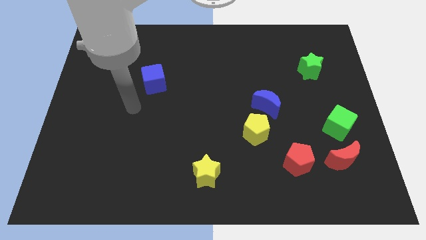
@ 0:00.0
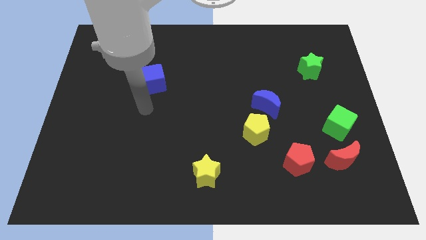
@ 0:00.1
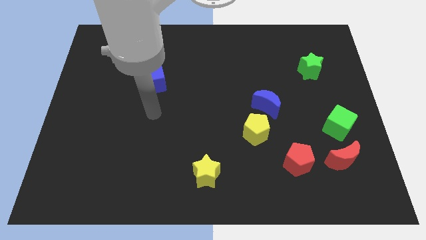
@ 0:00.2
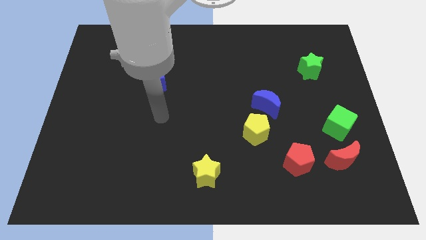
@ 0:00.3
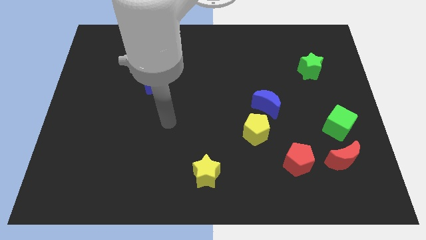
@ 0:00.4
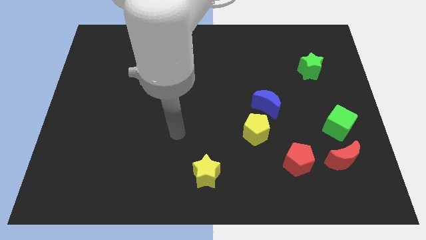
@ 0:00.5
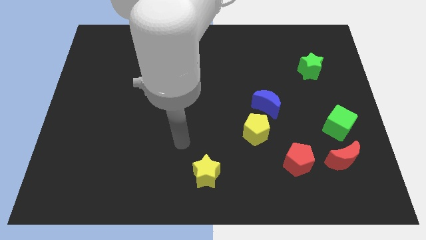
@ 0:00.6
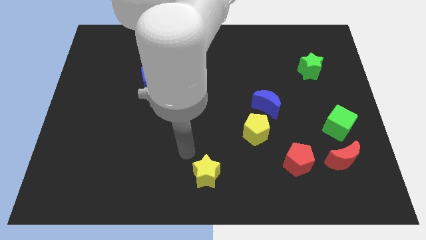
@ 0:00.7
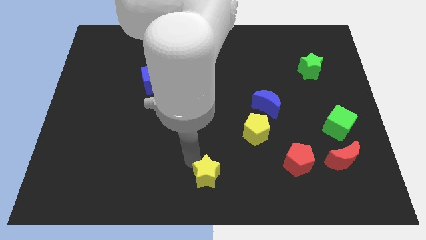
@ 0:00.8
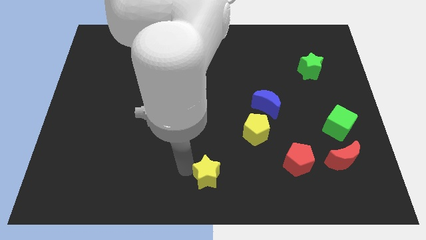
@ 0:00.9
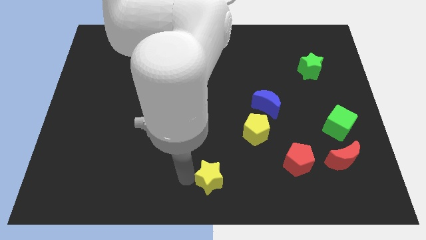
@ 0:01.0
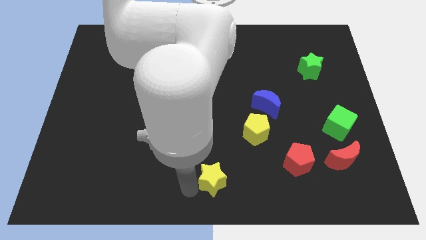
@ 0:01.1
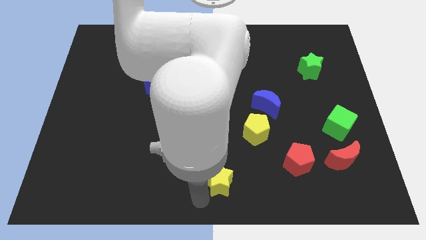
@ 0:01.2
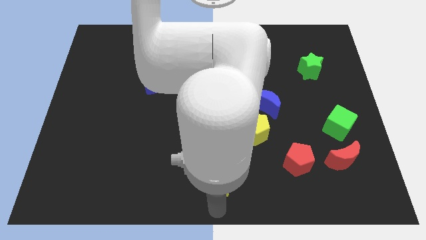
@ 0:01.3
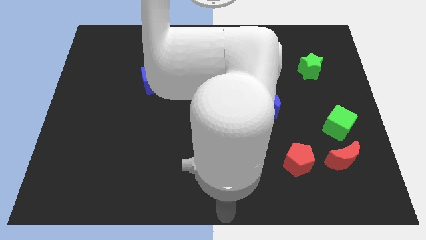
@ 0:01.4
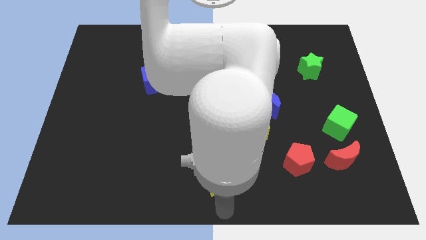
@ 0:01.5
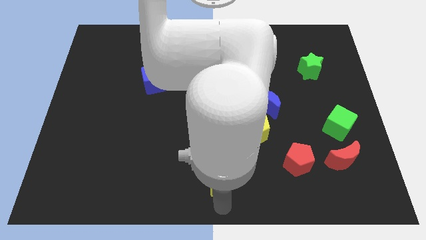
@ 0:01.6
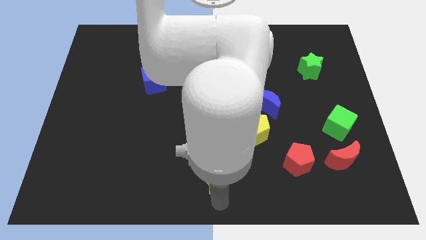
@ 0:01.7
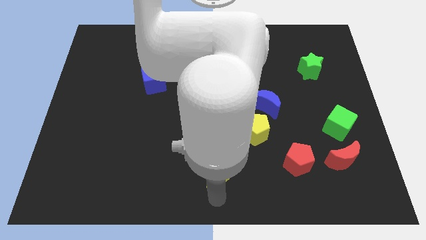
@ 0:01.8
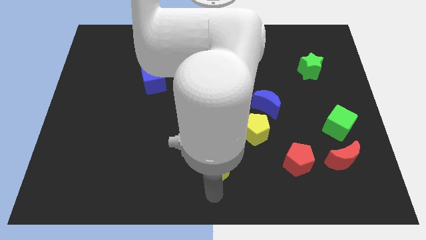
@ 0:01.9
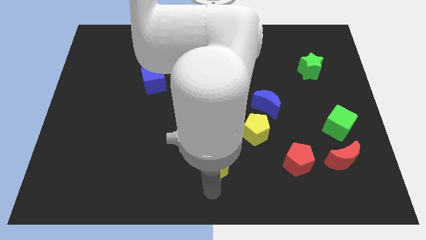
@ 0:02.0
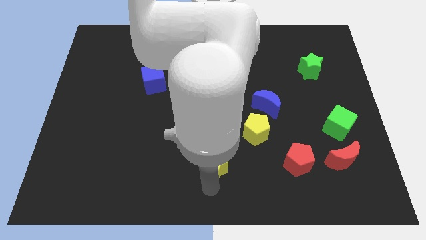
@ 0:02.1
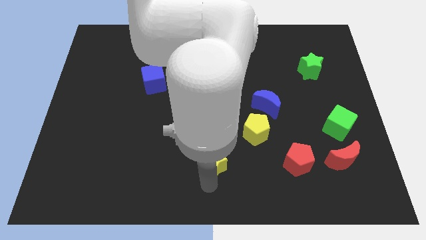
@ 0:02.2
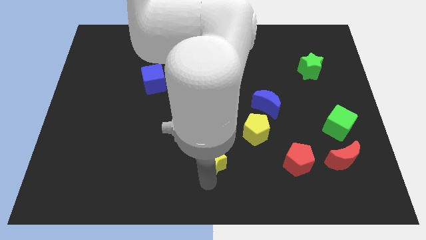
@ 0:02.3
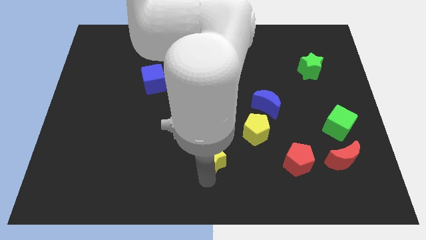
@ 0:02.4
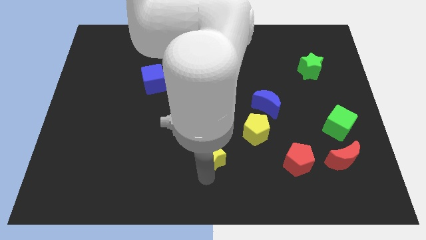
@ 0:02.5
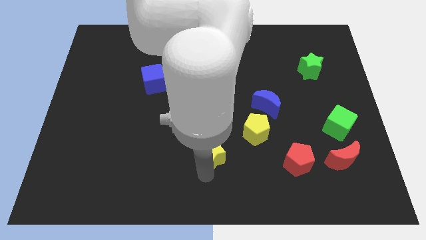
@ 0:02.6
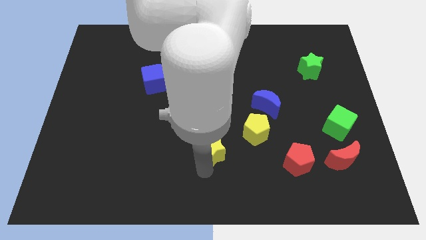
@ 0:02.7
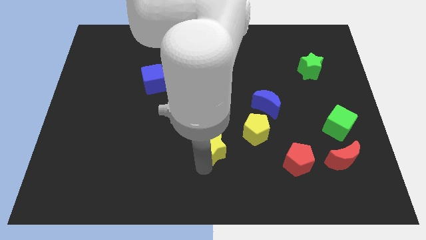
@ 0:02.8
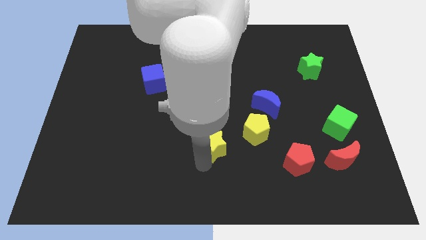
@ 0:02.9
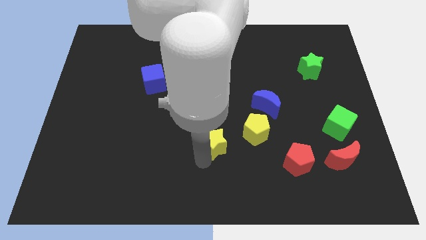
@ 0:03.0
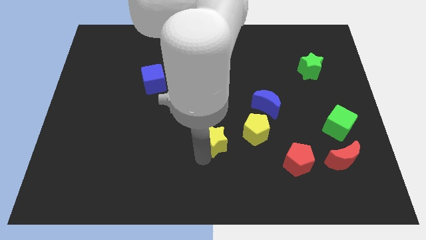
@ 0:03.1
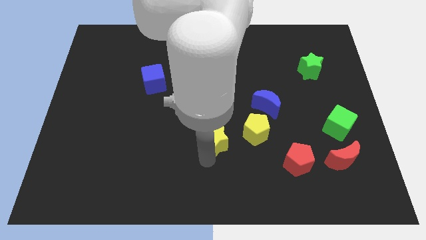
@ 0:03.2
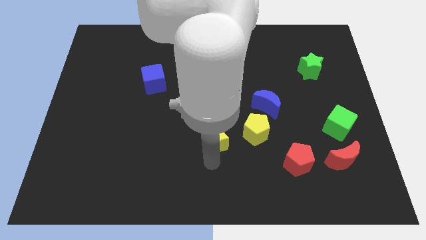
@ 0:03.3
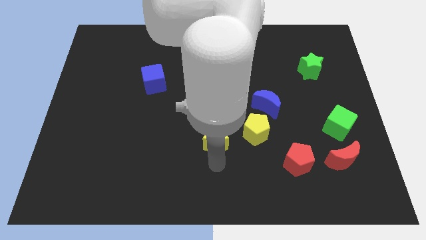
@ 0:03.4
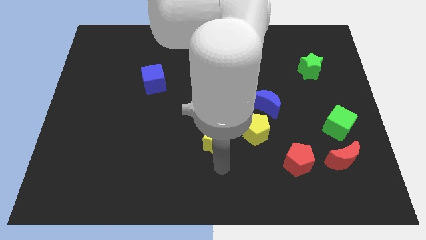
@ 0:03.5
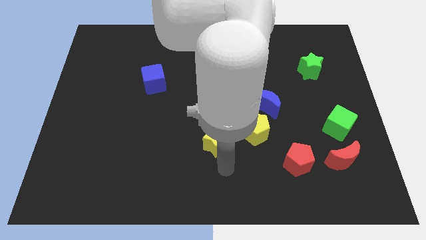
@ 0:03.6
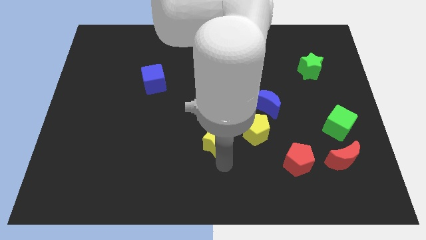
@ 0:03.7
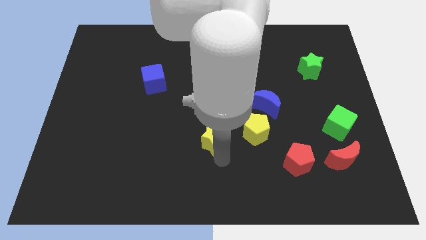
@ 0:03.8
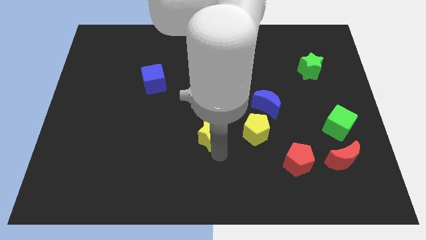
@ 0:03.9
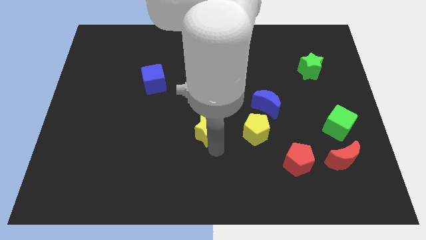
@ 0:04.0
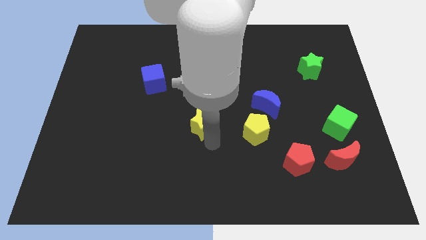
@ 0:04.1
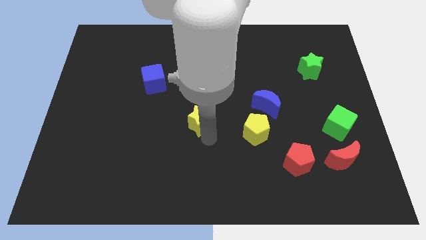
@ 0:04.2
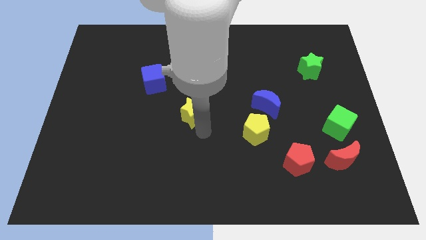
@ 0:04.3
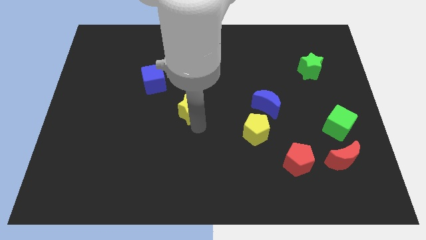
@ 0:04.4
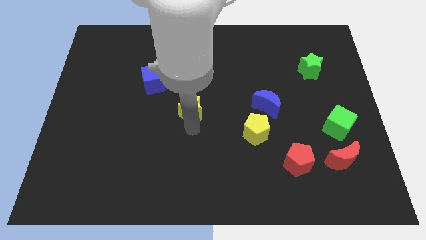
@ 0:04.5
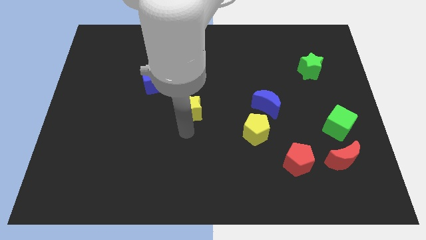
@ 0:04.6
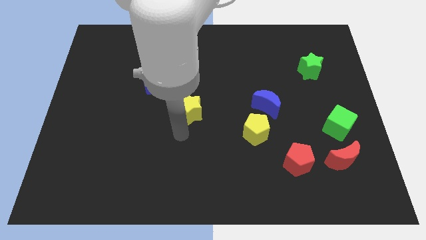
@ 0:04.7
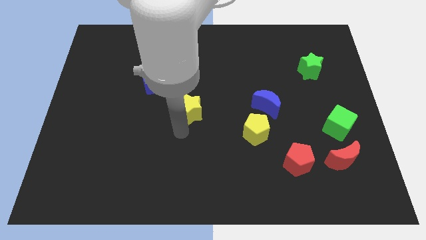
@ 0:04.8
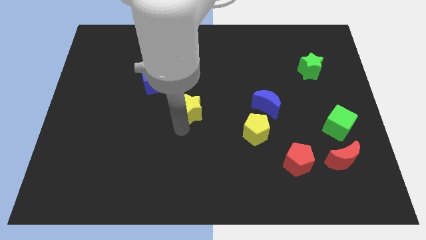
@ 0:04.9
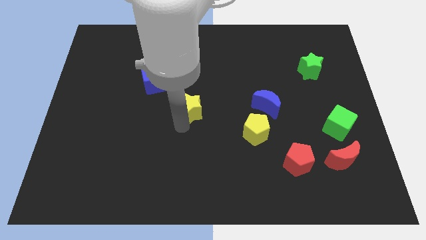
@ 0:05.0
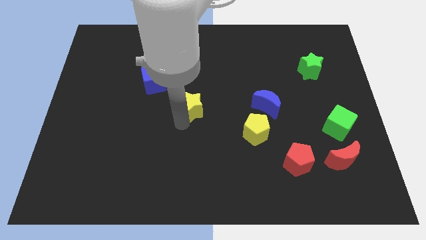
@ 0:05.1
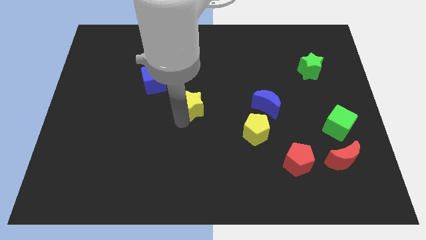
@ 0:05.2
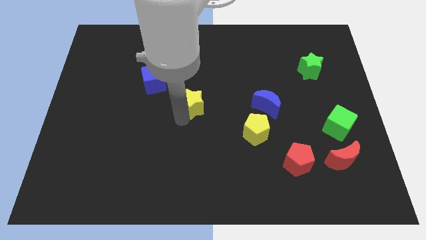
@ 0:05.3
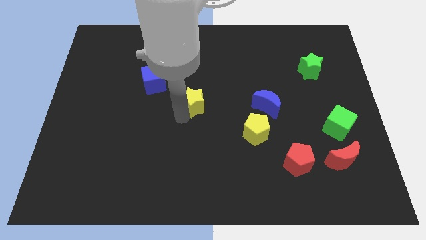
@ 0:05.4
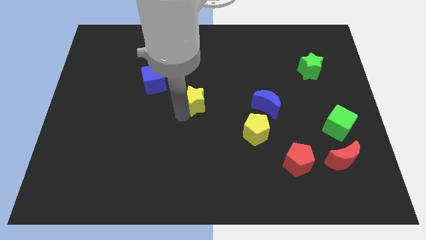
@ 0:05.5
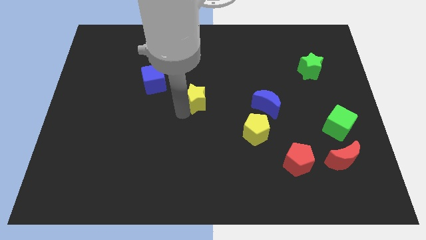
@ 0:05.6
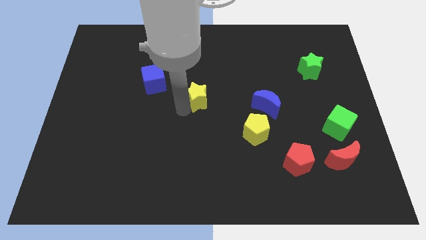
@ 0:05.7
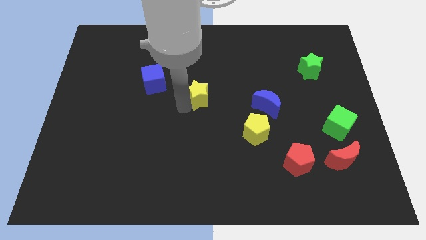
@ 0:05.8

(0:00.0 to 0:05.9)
slide the yellow star to the right side of the blue cube

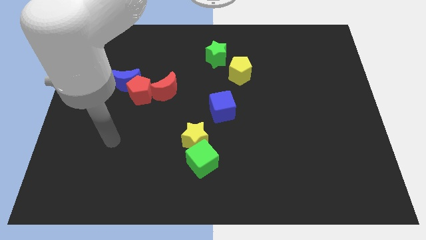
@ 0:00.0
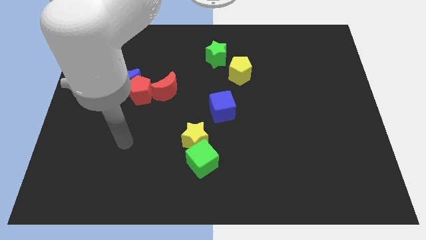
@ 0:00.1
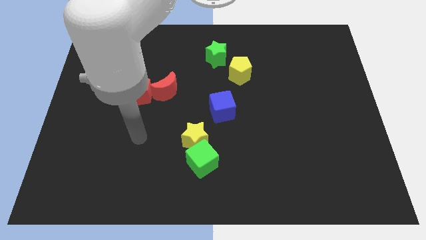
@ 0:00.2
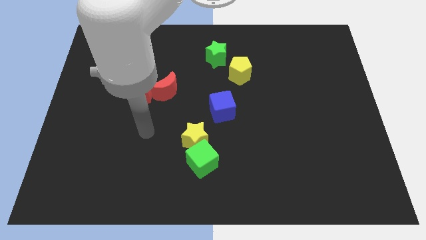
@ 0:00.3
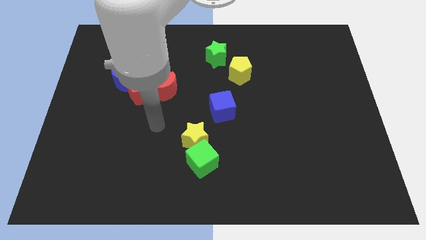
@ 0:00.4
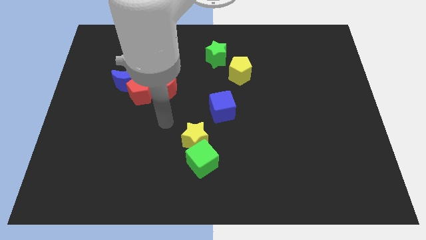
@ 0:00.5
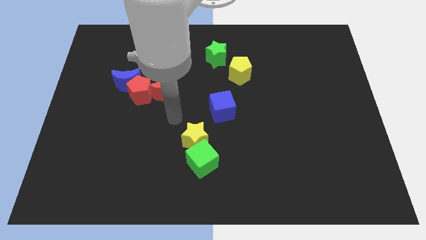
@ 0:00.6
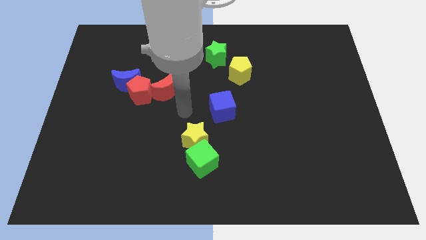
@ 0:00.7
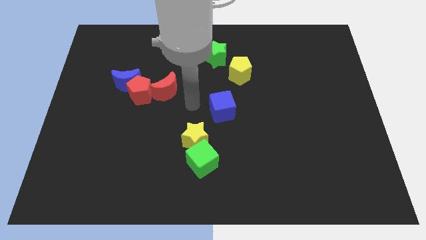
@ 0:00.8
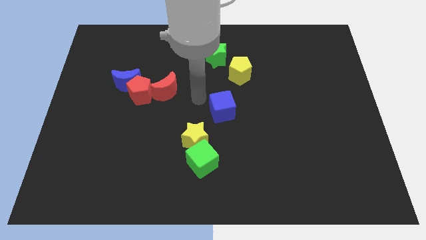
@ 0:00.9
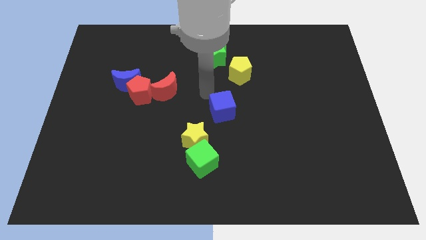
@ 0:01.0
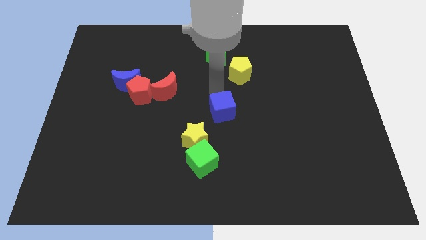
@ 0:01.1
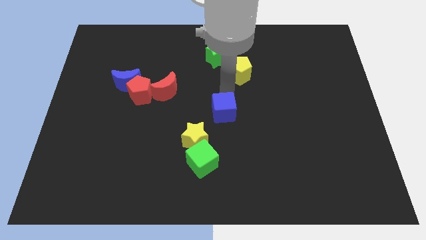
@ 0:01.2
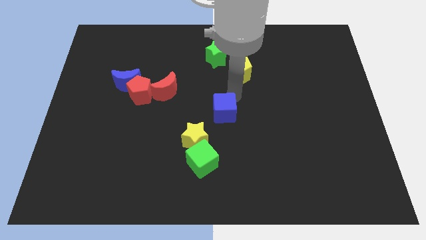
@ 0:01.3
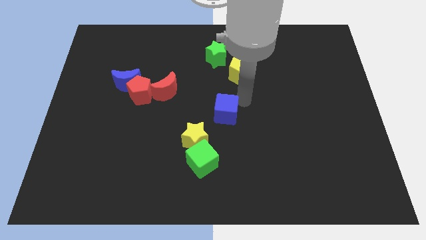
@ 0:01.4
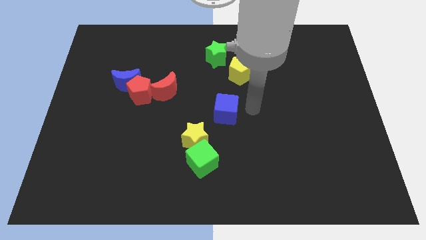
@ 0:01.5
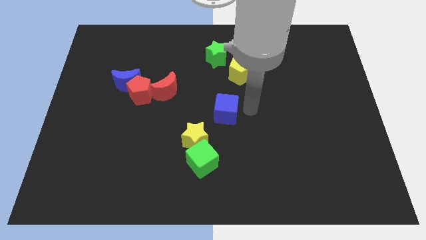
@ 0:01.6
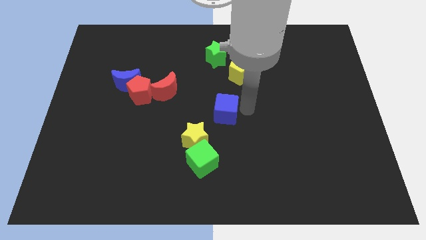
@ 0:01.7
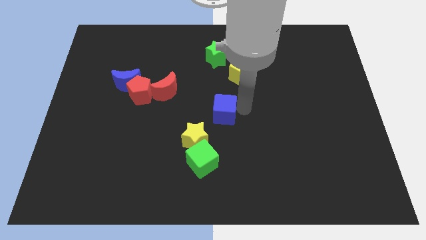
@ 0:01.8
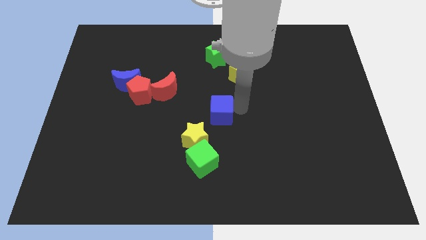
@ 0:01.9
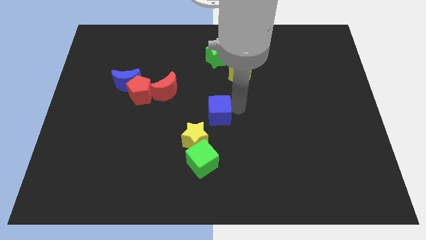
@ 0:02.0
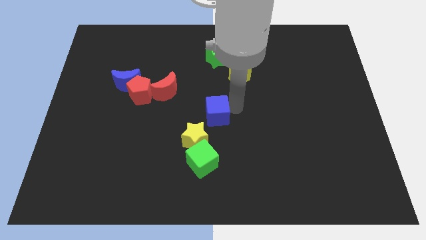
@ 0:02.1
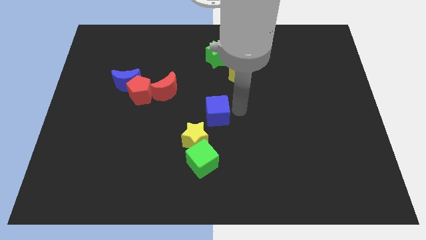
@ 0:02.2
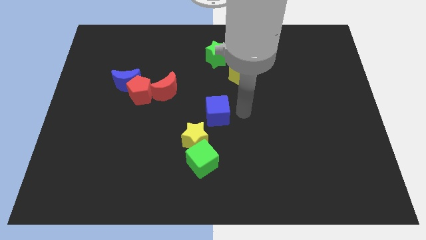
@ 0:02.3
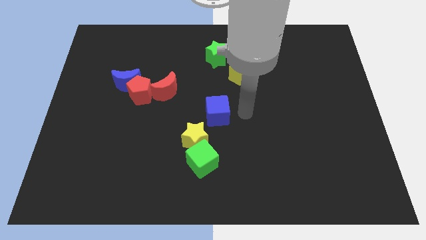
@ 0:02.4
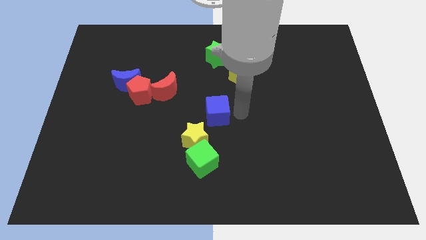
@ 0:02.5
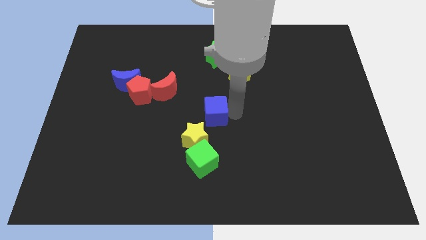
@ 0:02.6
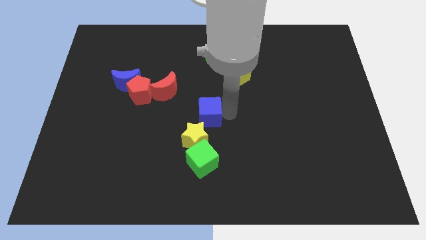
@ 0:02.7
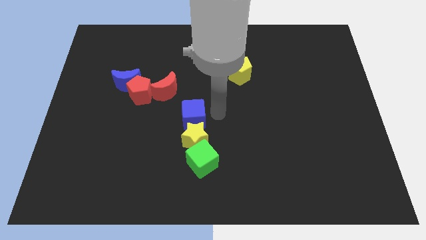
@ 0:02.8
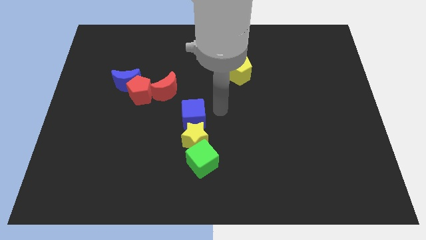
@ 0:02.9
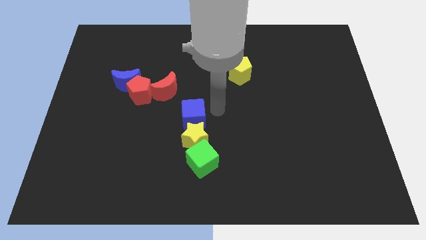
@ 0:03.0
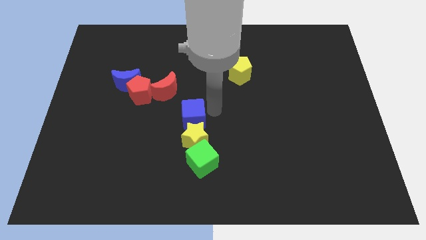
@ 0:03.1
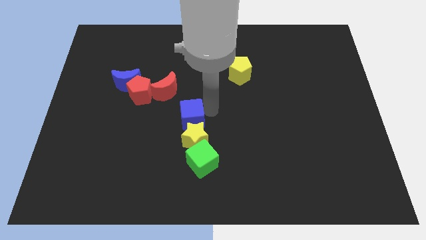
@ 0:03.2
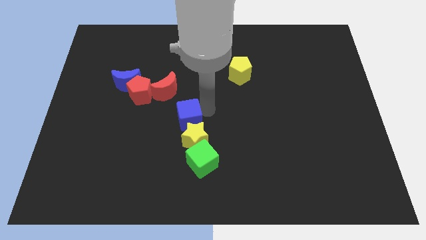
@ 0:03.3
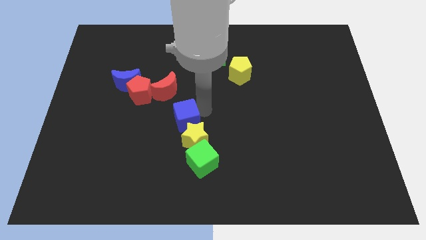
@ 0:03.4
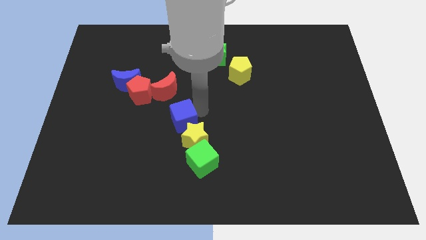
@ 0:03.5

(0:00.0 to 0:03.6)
move the blue cube to the bottom side of the red moon
